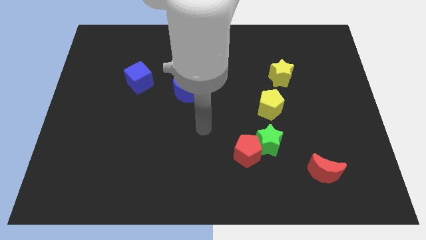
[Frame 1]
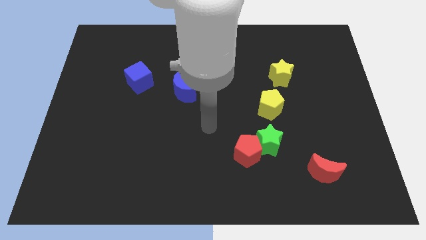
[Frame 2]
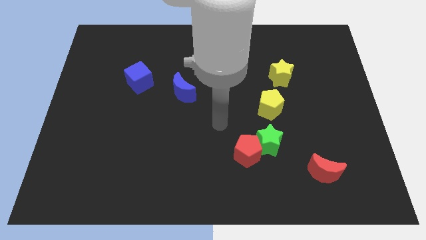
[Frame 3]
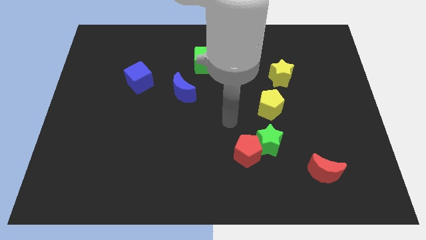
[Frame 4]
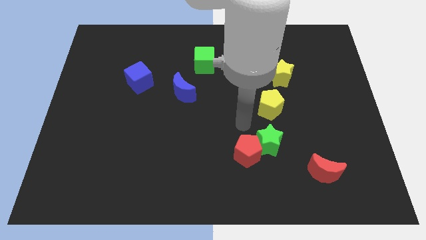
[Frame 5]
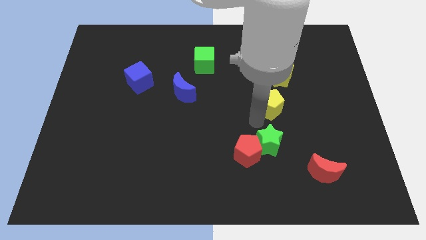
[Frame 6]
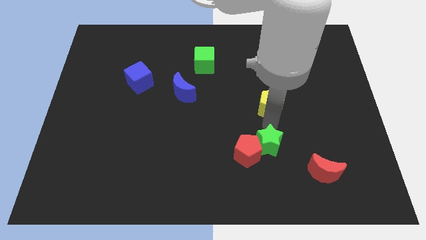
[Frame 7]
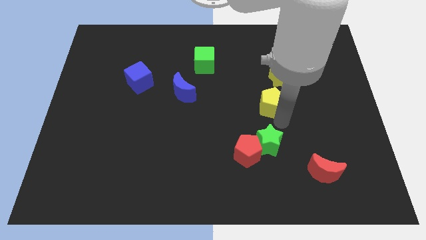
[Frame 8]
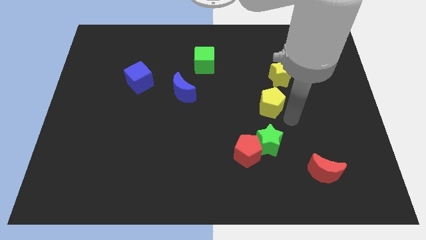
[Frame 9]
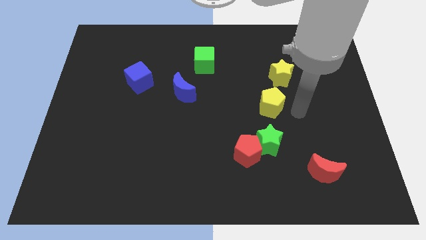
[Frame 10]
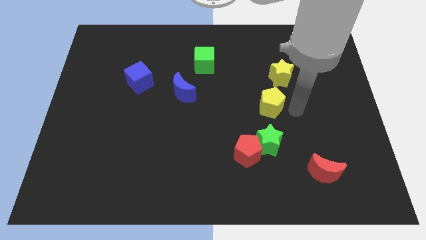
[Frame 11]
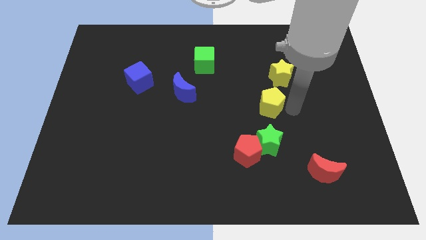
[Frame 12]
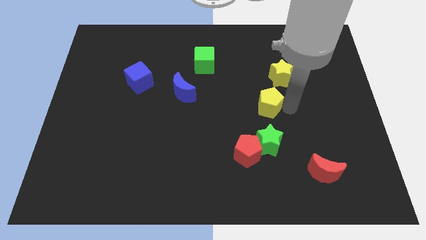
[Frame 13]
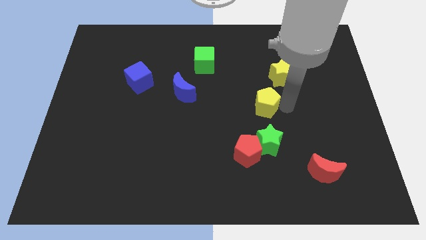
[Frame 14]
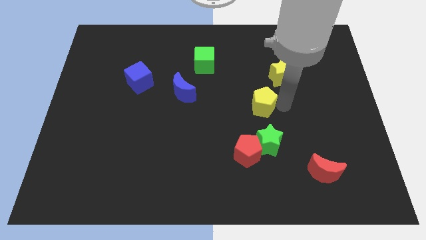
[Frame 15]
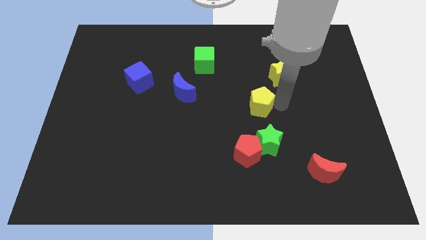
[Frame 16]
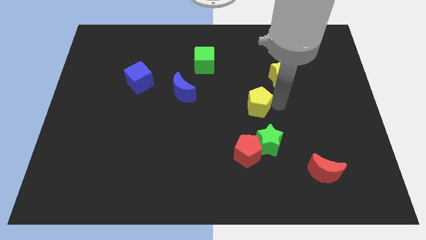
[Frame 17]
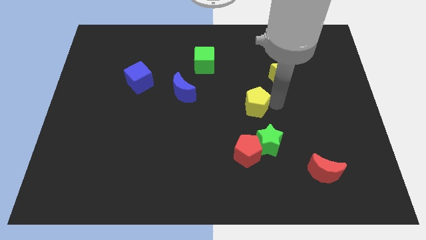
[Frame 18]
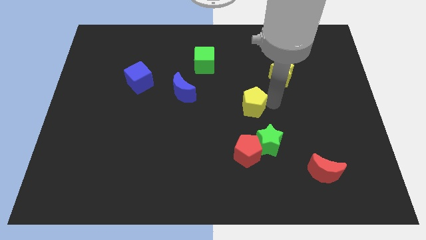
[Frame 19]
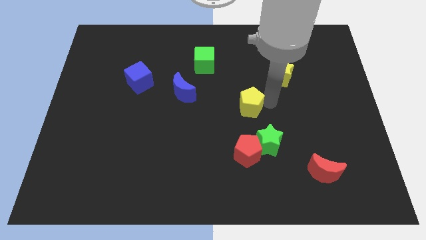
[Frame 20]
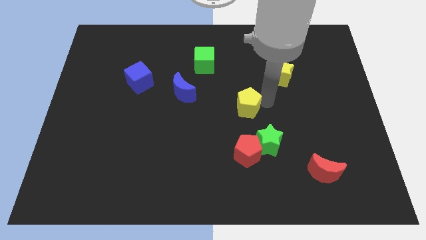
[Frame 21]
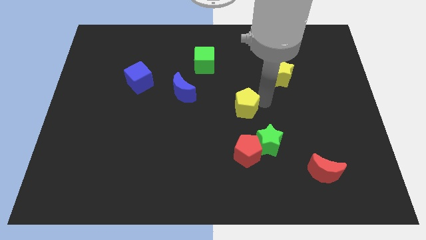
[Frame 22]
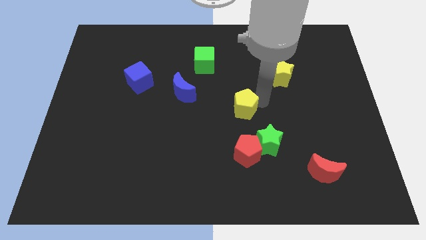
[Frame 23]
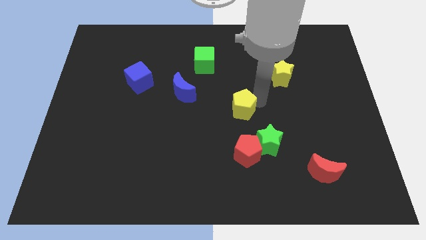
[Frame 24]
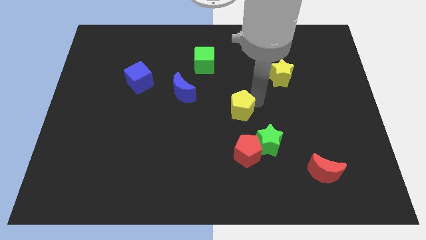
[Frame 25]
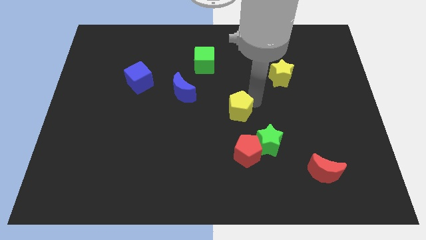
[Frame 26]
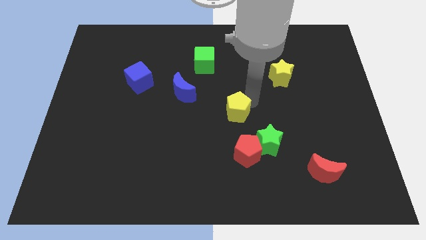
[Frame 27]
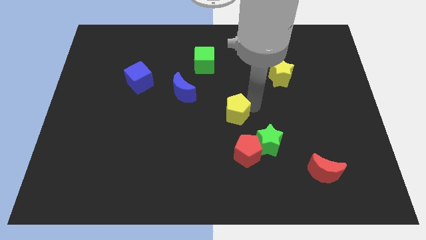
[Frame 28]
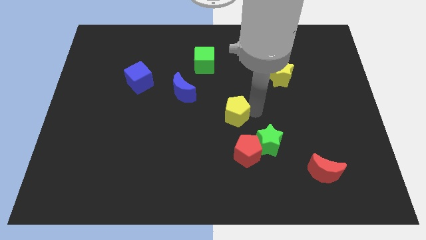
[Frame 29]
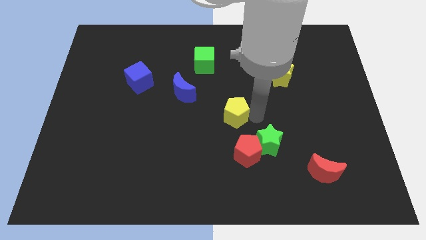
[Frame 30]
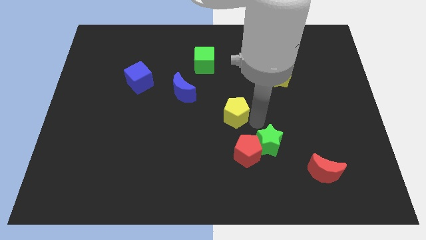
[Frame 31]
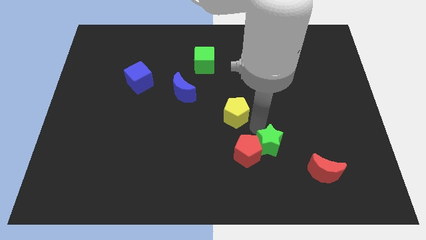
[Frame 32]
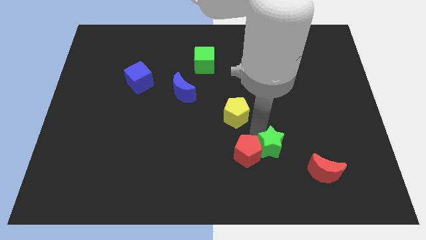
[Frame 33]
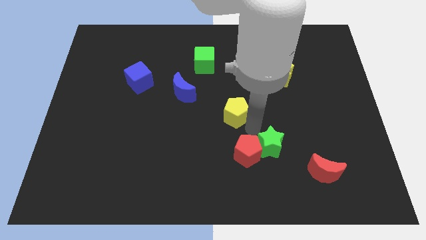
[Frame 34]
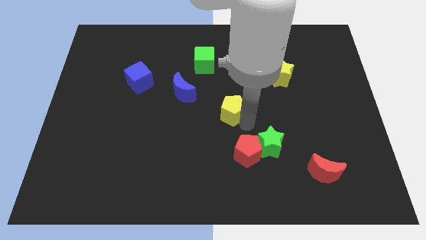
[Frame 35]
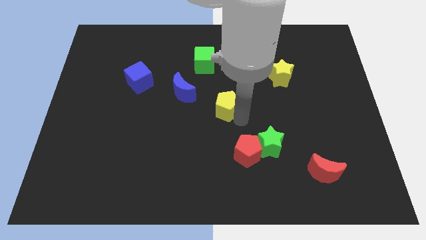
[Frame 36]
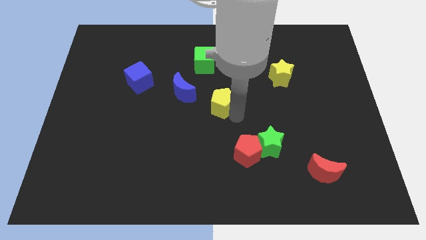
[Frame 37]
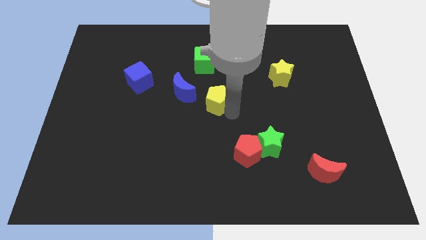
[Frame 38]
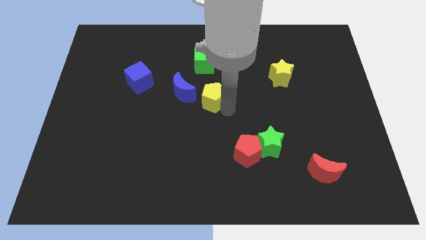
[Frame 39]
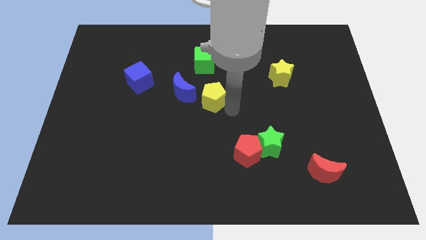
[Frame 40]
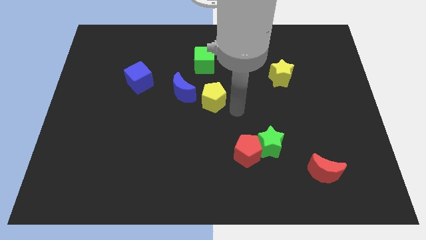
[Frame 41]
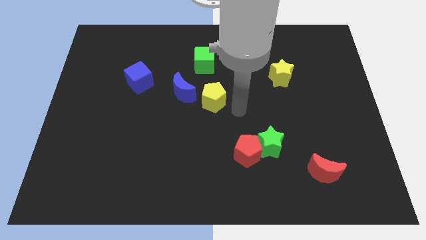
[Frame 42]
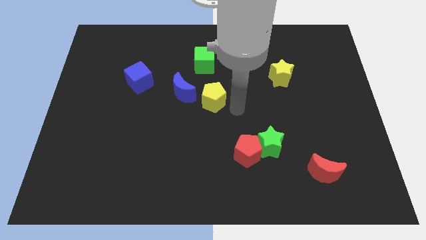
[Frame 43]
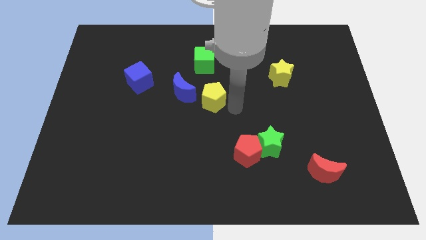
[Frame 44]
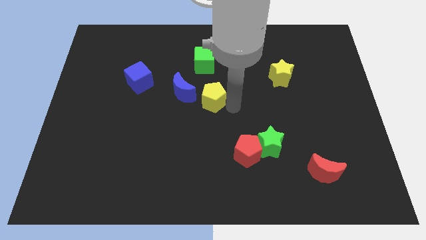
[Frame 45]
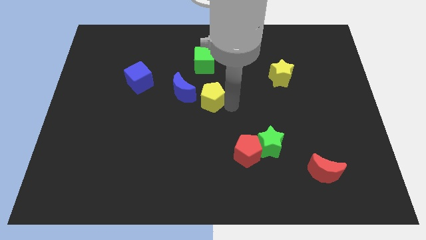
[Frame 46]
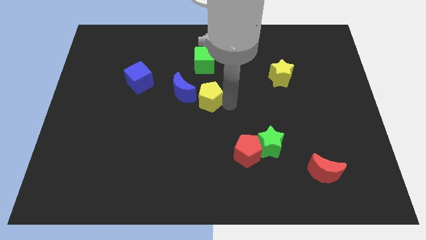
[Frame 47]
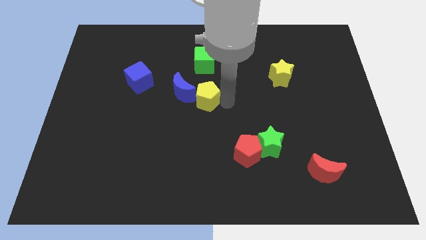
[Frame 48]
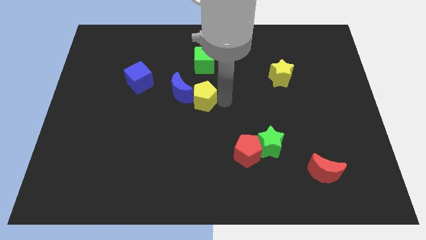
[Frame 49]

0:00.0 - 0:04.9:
slide the yellow pentagon close to the blue moon

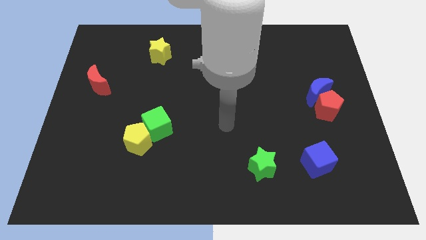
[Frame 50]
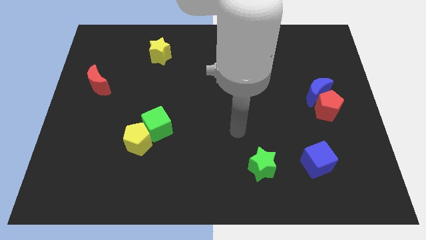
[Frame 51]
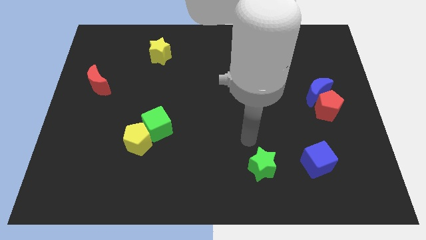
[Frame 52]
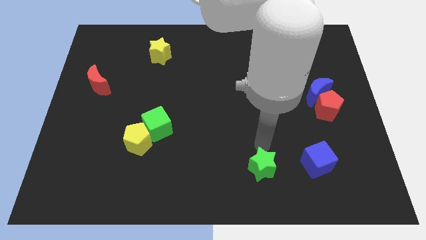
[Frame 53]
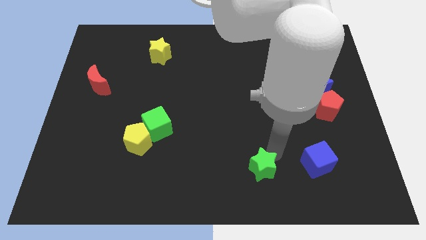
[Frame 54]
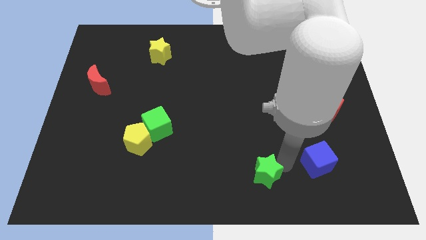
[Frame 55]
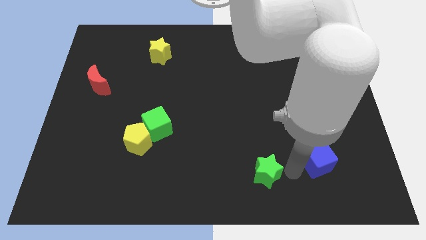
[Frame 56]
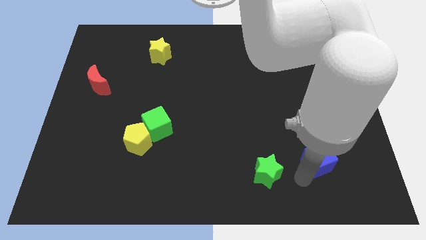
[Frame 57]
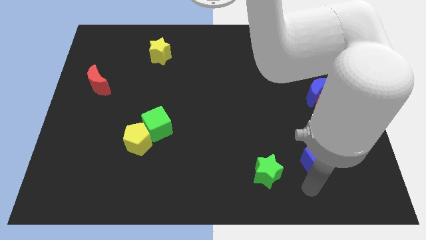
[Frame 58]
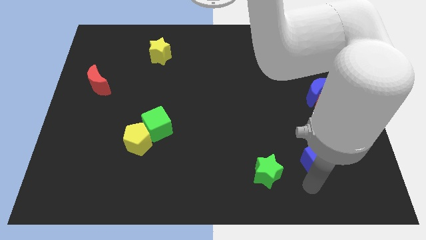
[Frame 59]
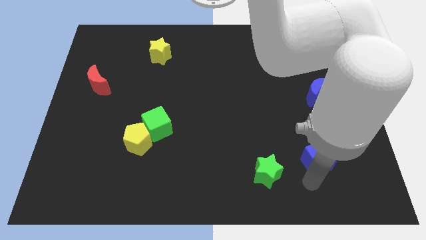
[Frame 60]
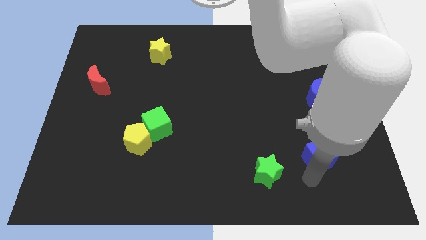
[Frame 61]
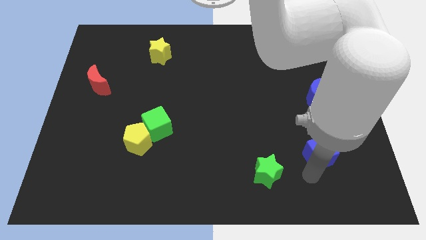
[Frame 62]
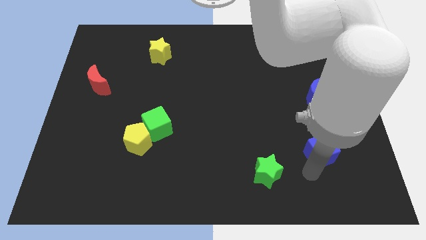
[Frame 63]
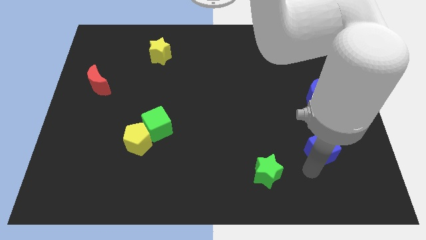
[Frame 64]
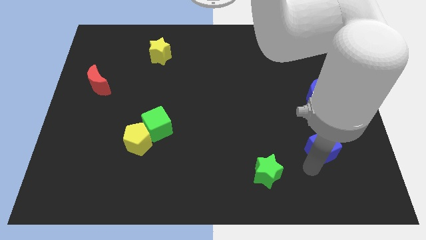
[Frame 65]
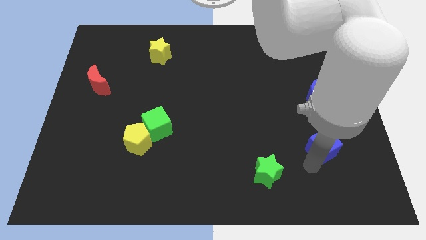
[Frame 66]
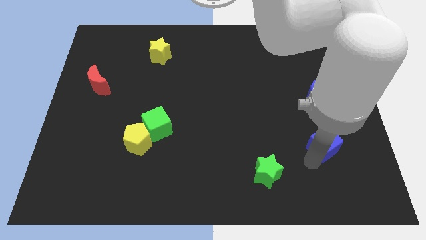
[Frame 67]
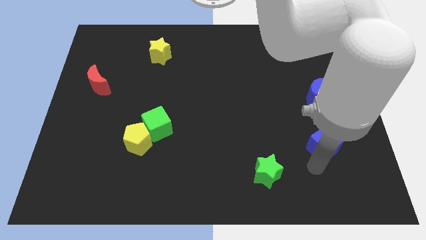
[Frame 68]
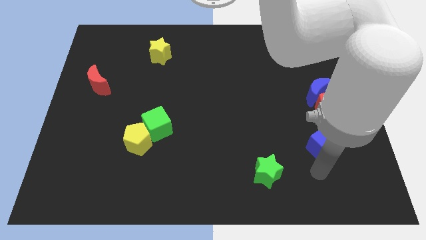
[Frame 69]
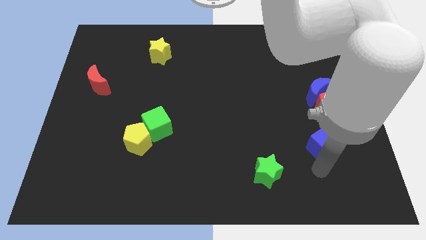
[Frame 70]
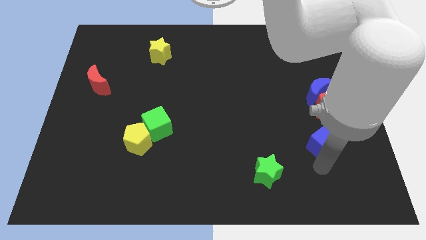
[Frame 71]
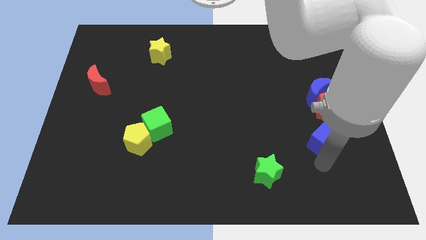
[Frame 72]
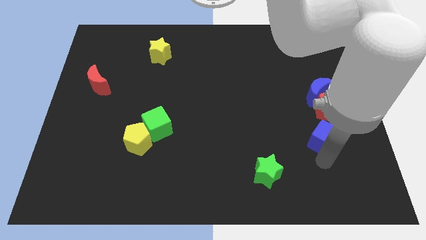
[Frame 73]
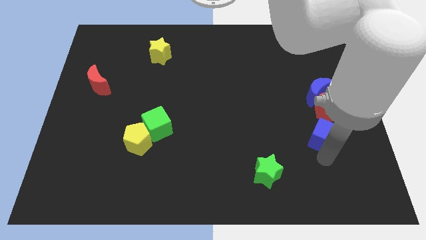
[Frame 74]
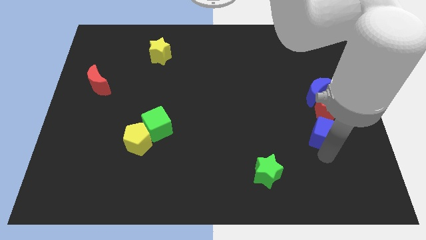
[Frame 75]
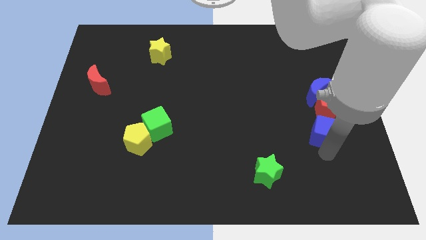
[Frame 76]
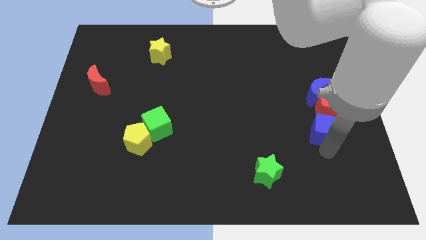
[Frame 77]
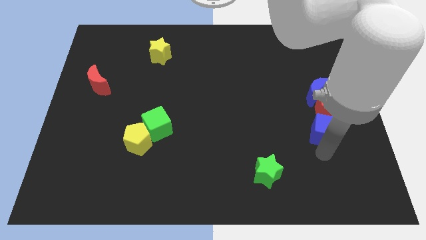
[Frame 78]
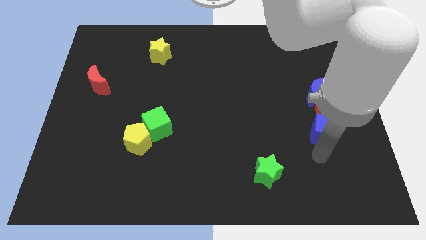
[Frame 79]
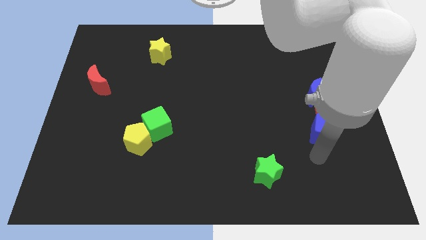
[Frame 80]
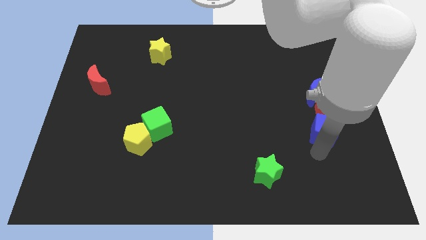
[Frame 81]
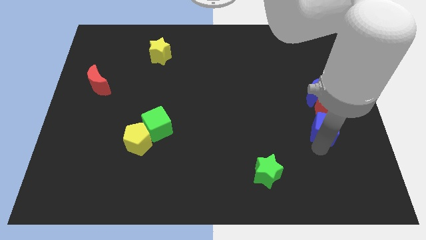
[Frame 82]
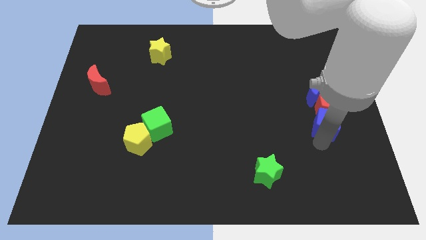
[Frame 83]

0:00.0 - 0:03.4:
move the blue cube close to the red pentagon
